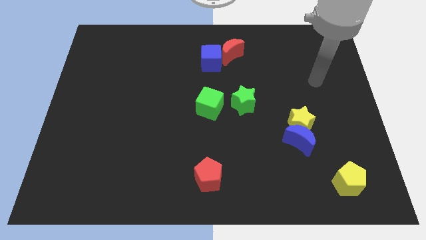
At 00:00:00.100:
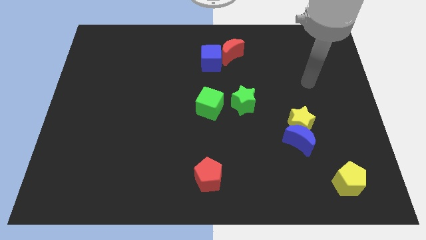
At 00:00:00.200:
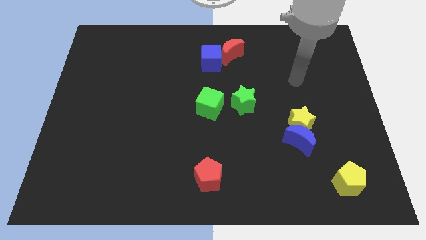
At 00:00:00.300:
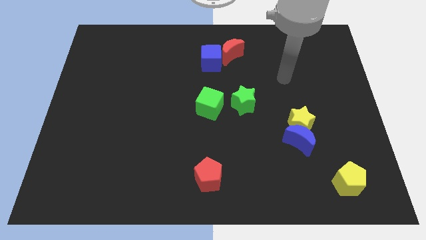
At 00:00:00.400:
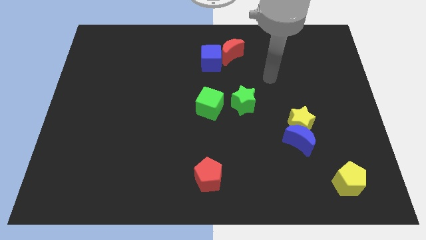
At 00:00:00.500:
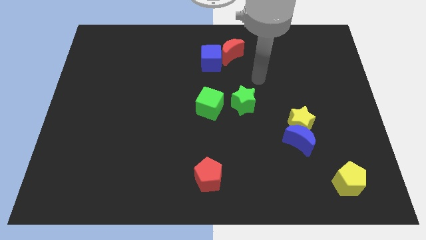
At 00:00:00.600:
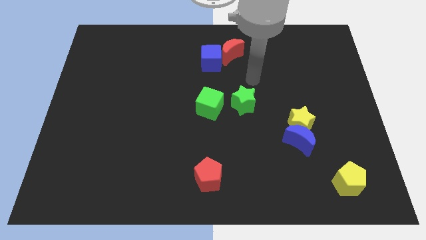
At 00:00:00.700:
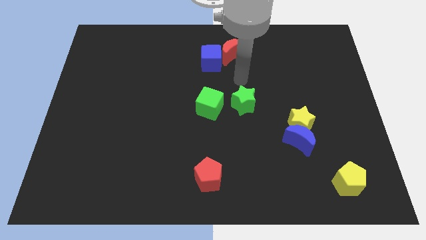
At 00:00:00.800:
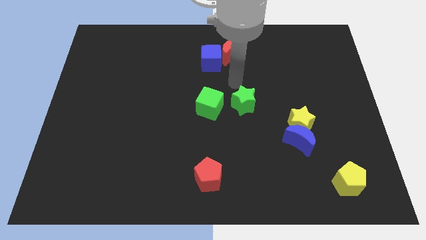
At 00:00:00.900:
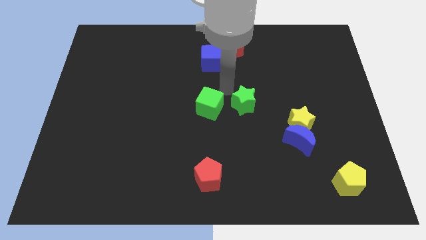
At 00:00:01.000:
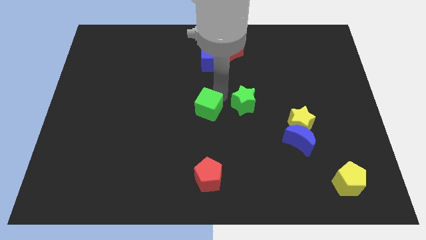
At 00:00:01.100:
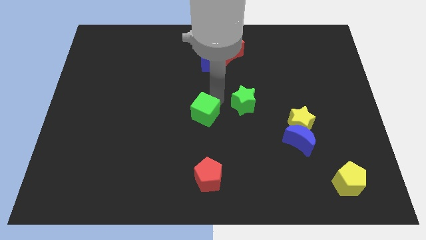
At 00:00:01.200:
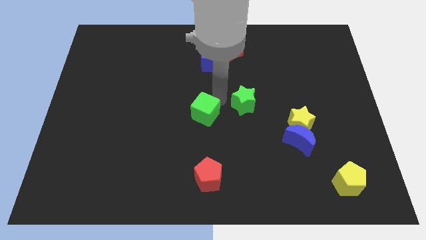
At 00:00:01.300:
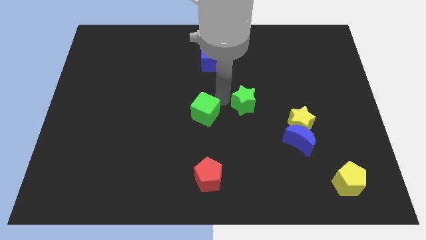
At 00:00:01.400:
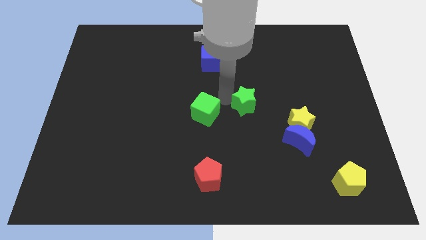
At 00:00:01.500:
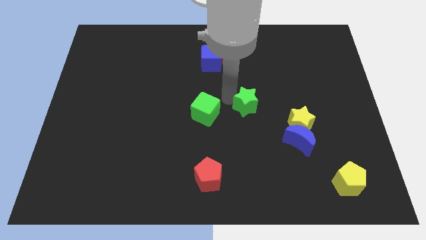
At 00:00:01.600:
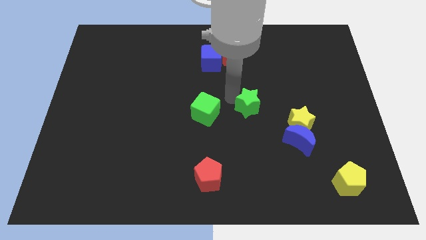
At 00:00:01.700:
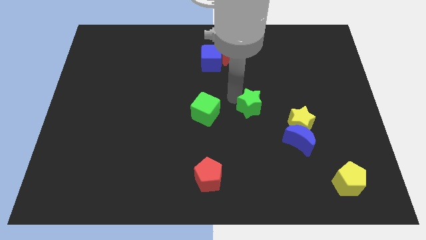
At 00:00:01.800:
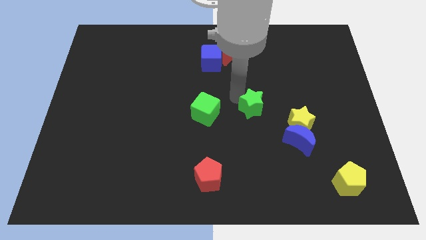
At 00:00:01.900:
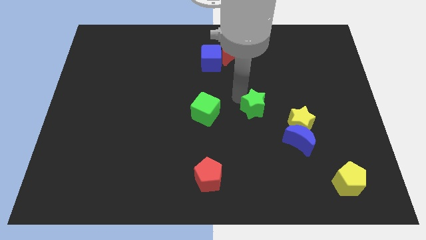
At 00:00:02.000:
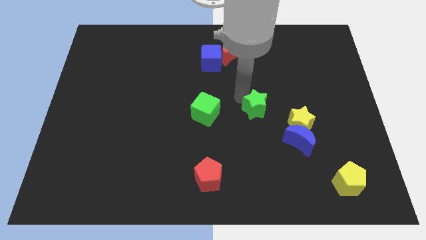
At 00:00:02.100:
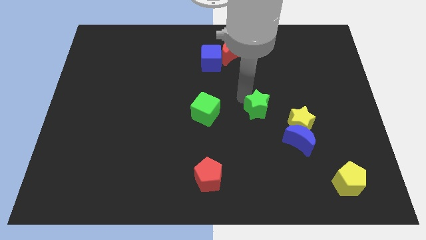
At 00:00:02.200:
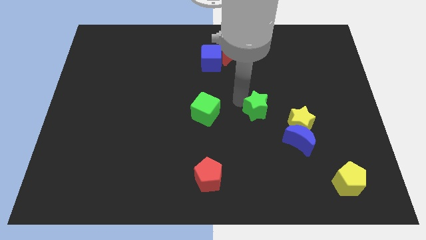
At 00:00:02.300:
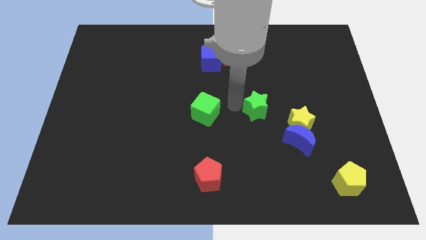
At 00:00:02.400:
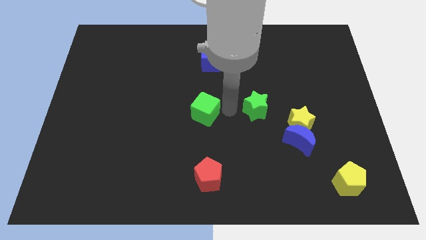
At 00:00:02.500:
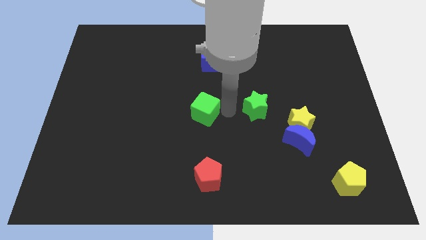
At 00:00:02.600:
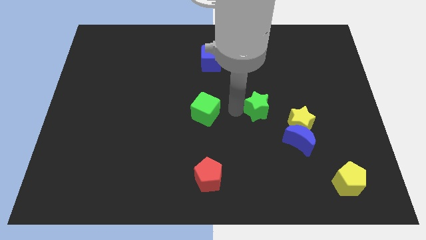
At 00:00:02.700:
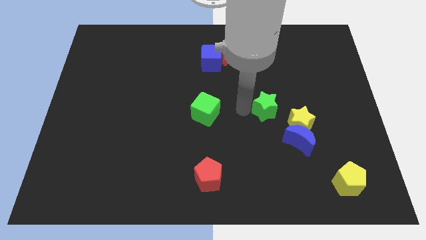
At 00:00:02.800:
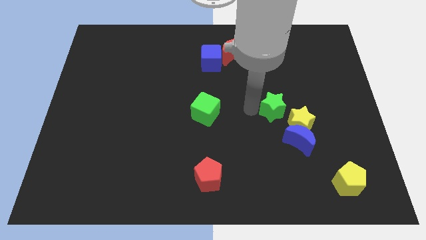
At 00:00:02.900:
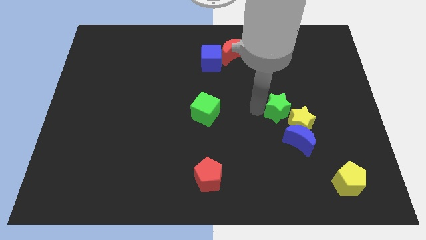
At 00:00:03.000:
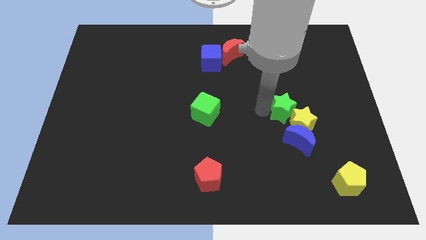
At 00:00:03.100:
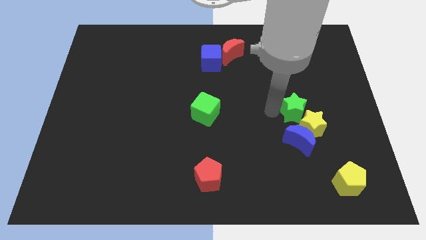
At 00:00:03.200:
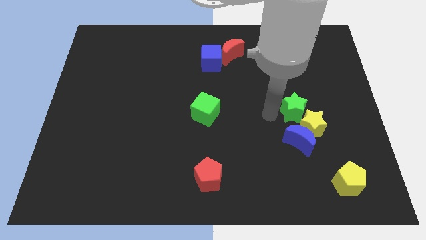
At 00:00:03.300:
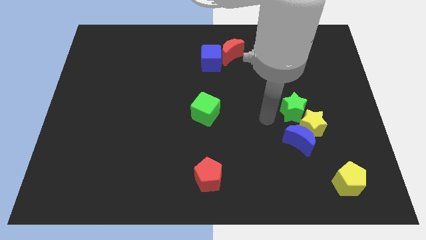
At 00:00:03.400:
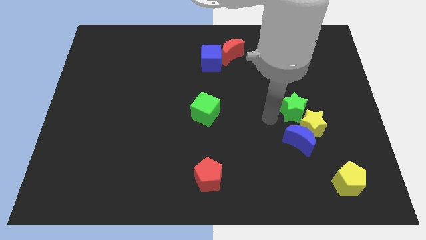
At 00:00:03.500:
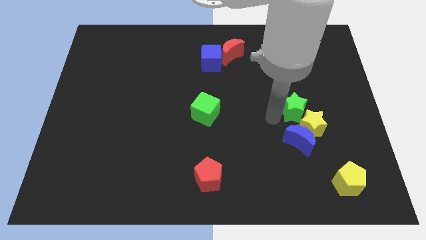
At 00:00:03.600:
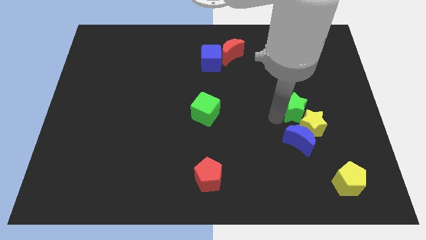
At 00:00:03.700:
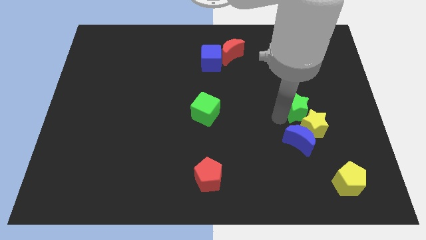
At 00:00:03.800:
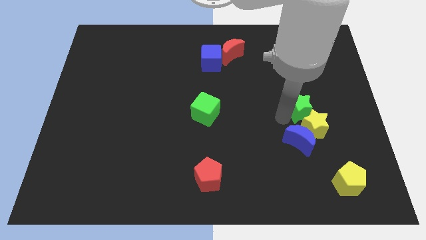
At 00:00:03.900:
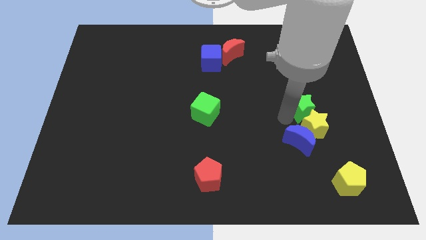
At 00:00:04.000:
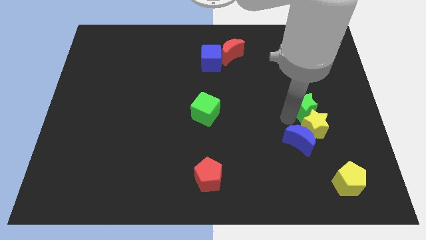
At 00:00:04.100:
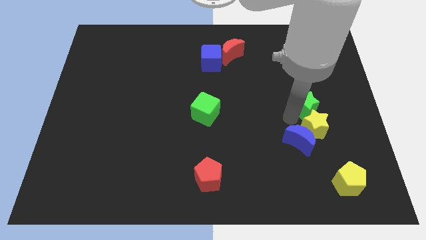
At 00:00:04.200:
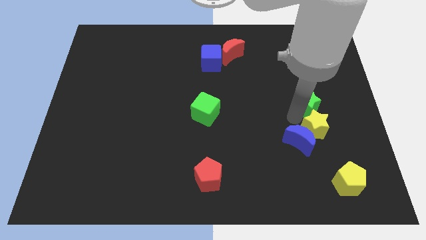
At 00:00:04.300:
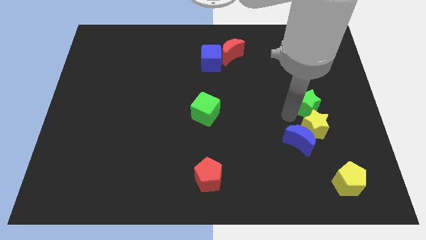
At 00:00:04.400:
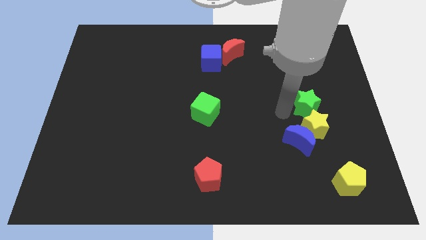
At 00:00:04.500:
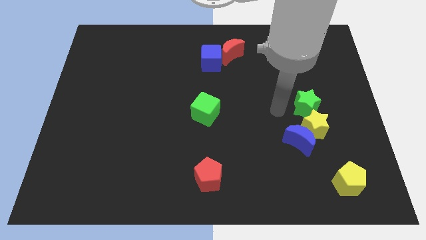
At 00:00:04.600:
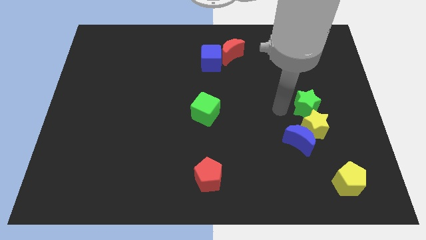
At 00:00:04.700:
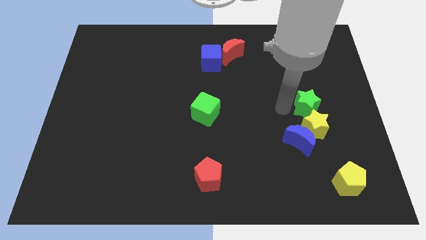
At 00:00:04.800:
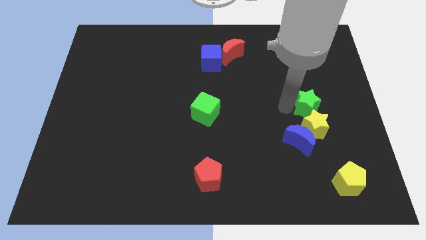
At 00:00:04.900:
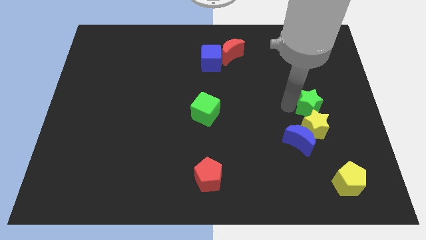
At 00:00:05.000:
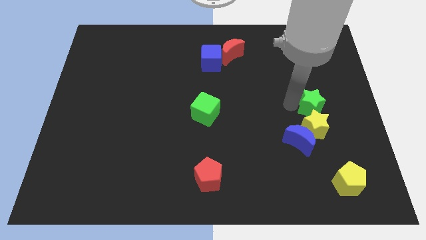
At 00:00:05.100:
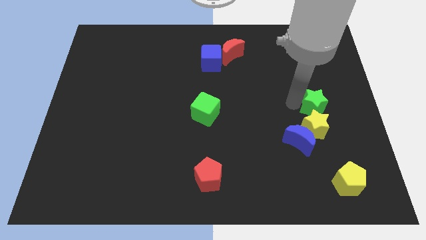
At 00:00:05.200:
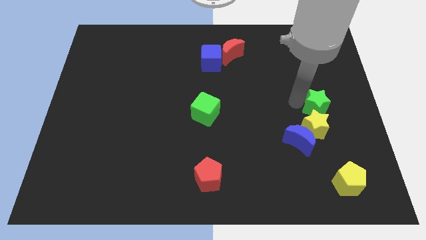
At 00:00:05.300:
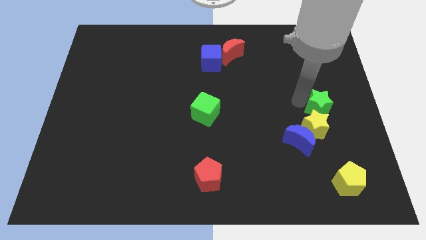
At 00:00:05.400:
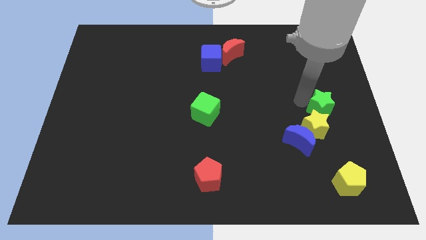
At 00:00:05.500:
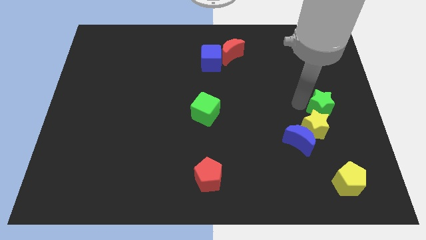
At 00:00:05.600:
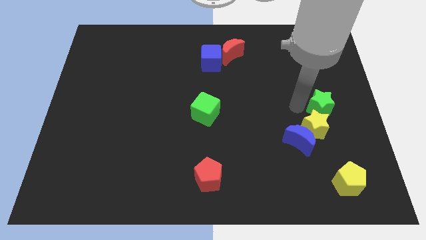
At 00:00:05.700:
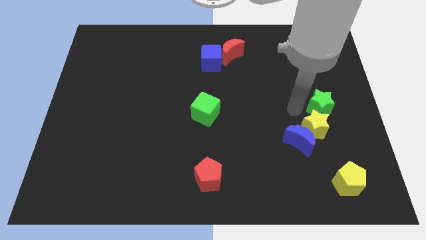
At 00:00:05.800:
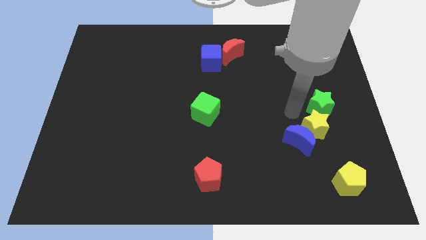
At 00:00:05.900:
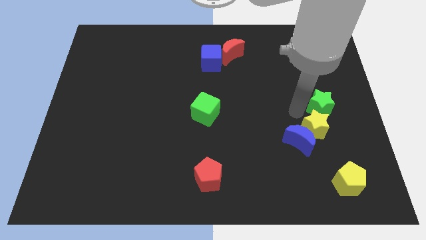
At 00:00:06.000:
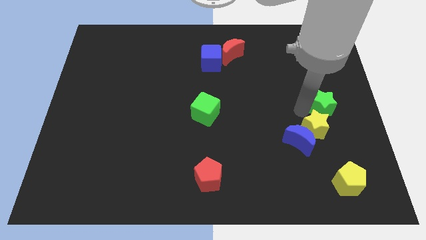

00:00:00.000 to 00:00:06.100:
slide the green star to the right side
